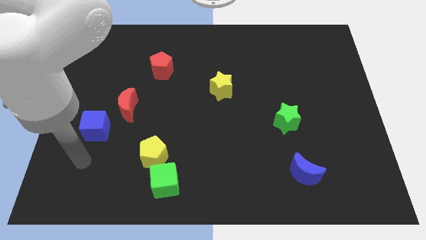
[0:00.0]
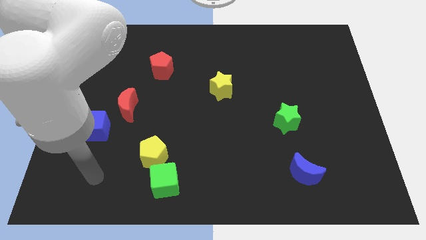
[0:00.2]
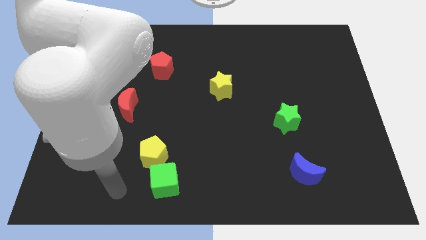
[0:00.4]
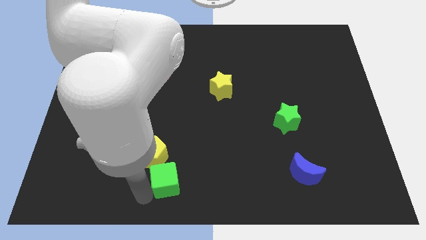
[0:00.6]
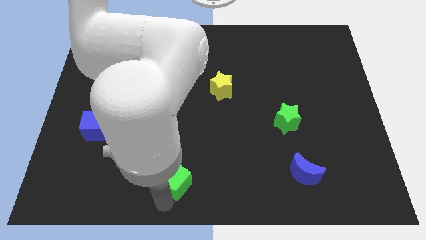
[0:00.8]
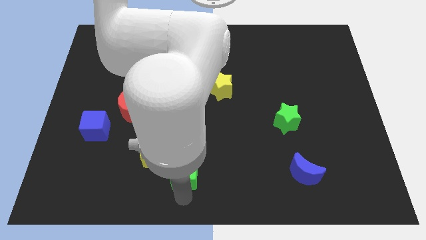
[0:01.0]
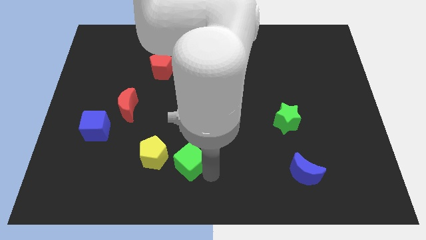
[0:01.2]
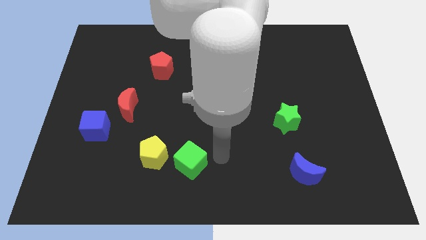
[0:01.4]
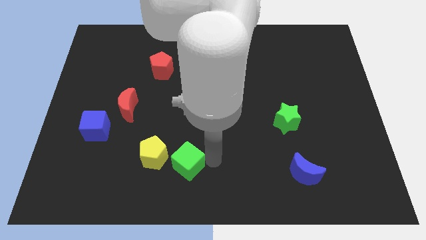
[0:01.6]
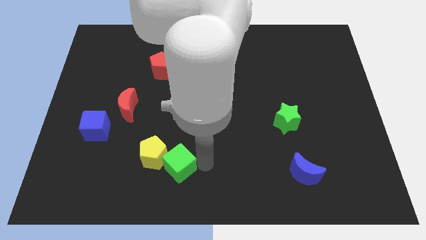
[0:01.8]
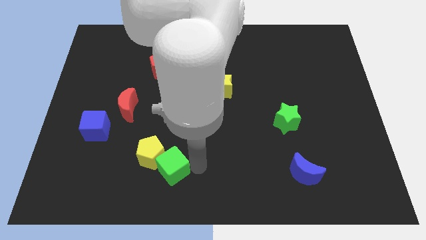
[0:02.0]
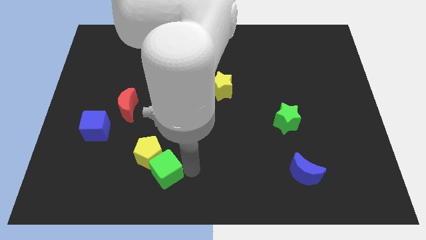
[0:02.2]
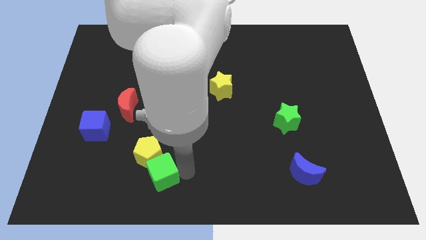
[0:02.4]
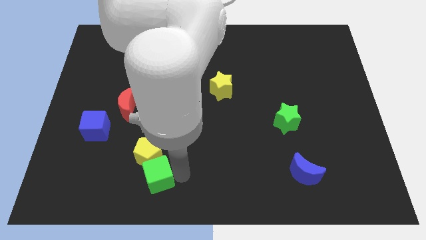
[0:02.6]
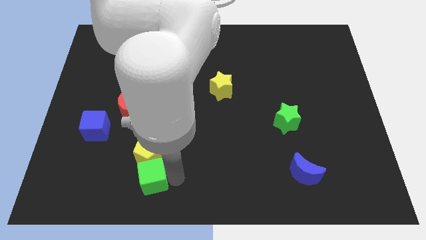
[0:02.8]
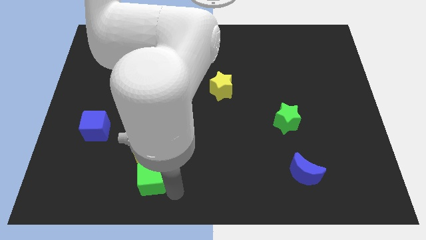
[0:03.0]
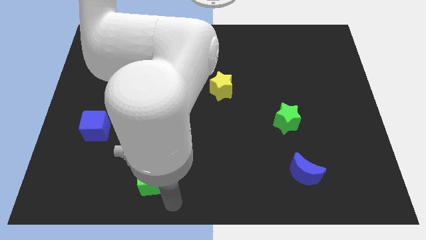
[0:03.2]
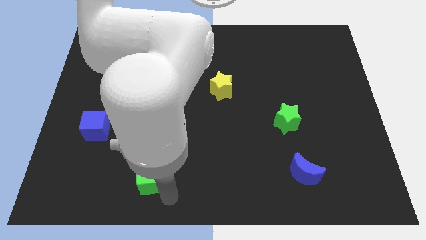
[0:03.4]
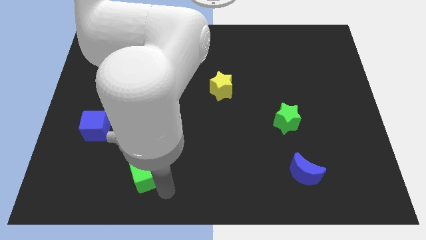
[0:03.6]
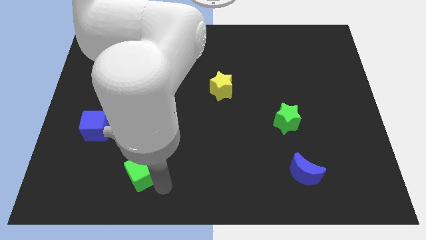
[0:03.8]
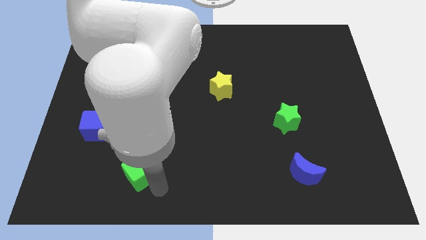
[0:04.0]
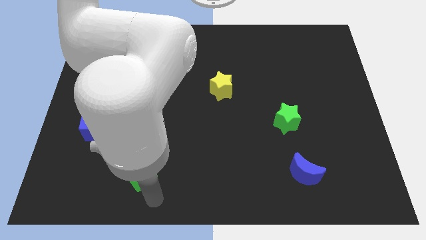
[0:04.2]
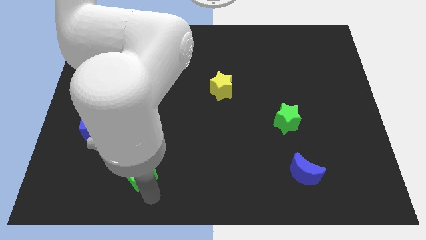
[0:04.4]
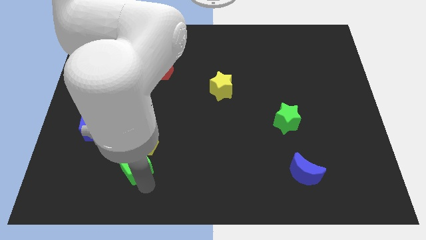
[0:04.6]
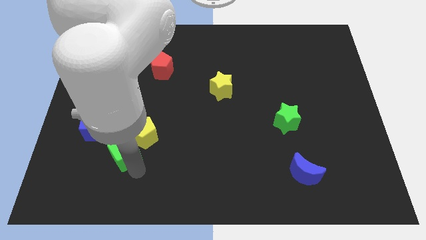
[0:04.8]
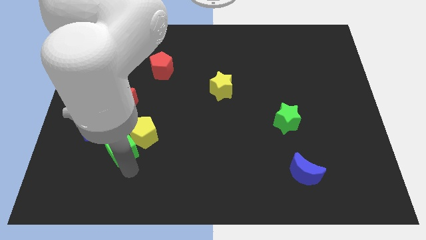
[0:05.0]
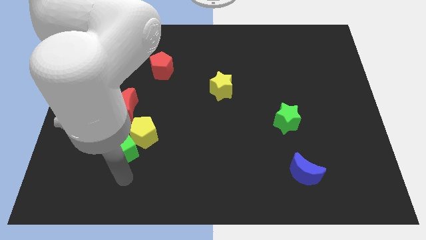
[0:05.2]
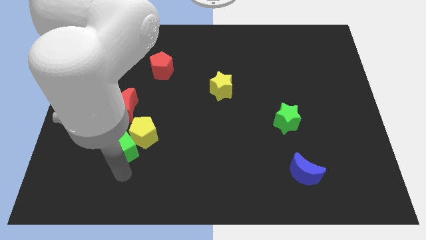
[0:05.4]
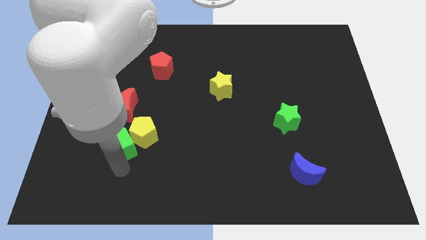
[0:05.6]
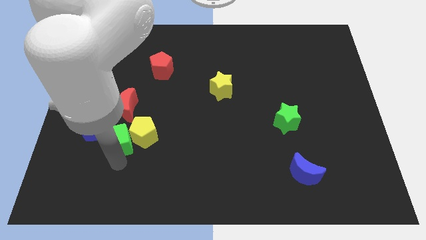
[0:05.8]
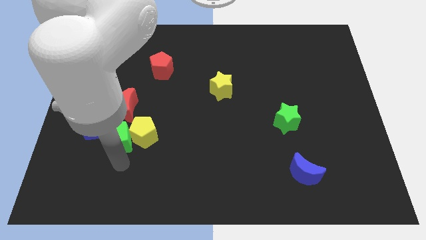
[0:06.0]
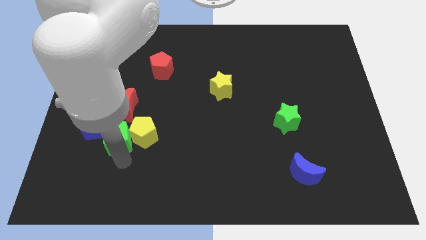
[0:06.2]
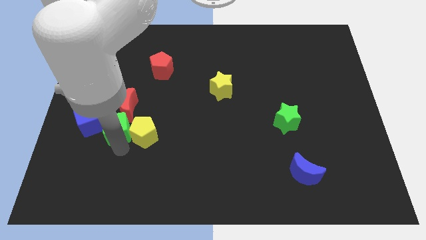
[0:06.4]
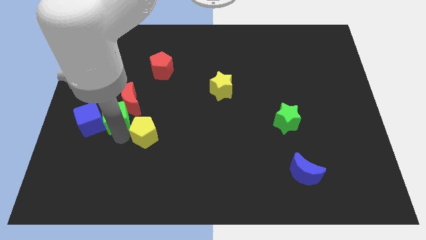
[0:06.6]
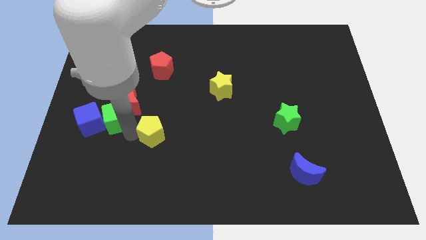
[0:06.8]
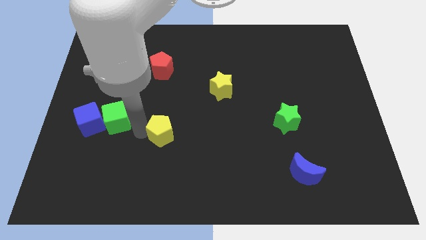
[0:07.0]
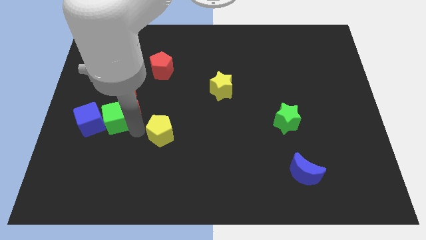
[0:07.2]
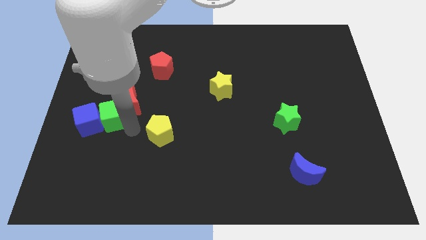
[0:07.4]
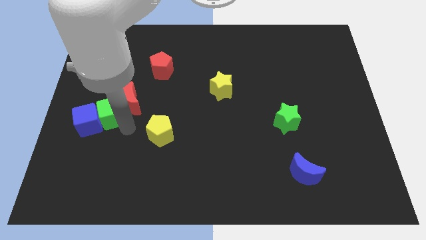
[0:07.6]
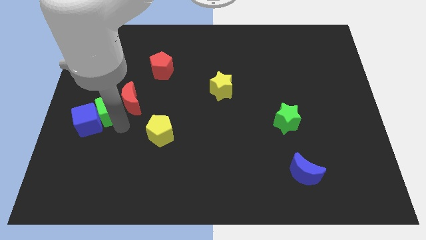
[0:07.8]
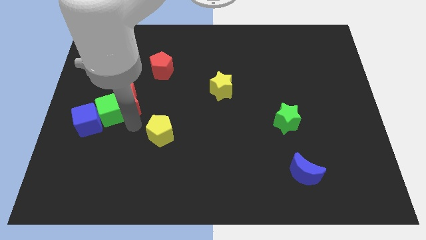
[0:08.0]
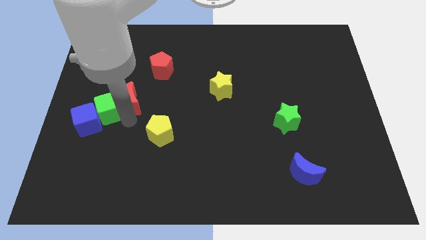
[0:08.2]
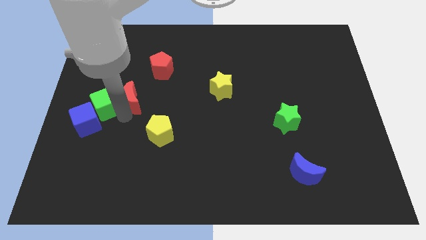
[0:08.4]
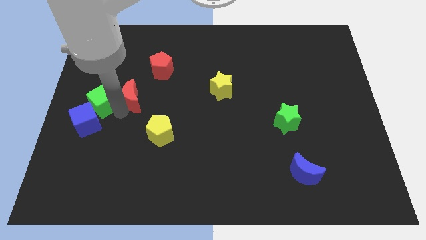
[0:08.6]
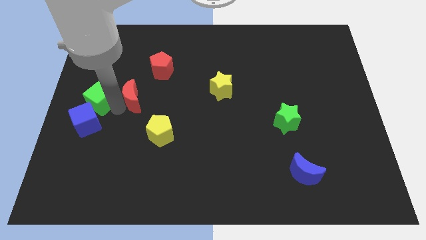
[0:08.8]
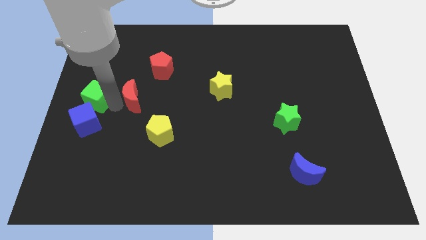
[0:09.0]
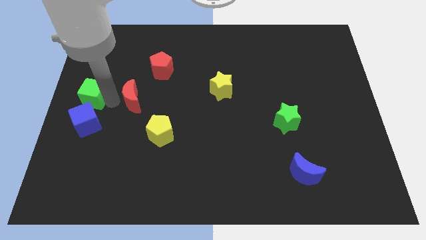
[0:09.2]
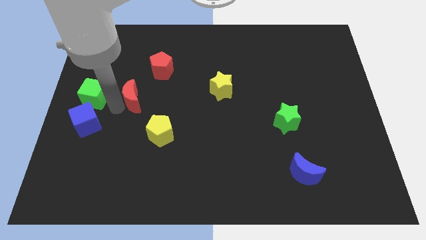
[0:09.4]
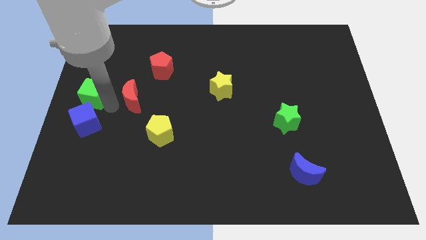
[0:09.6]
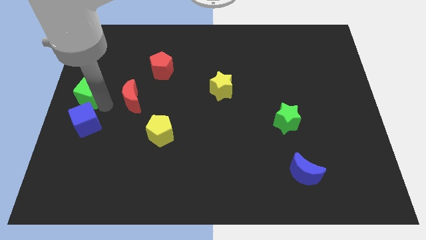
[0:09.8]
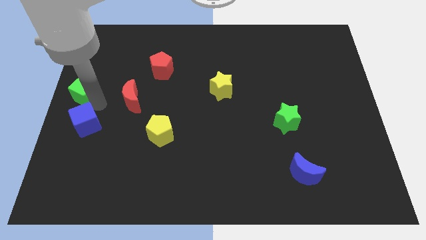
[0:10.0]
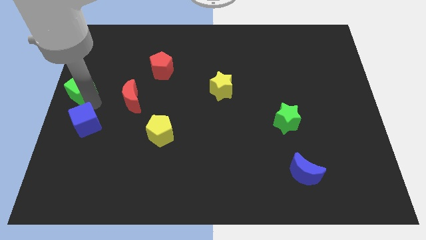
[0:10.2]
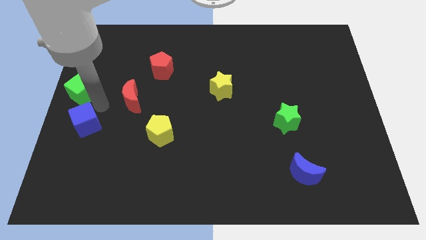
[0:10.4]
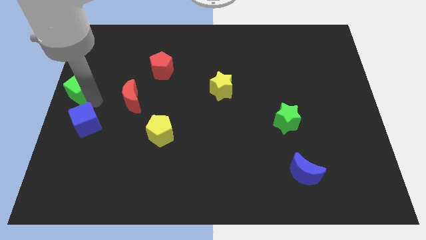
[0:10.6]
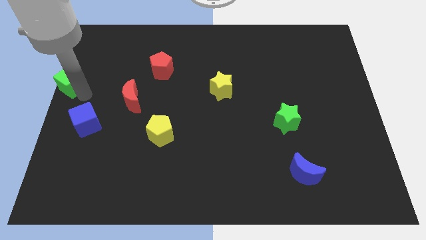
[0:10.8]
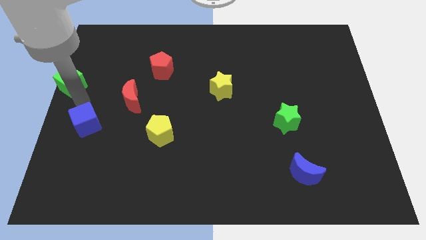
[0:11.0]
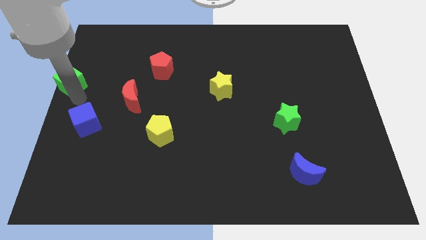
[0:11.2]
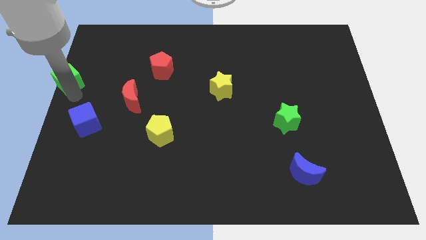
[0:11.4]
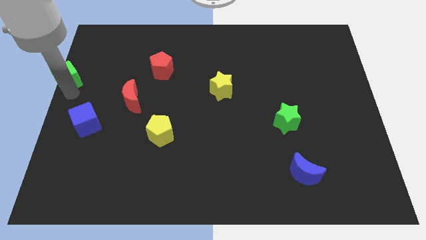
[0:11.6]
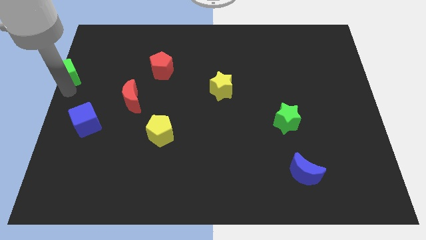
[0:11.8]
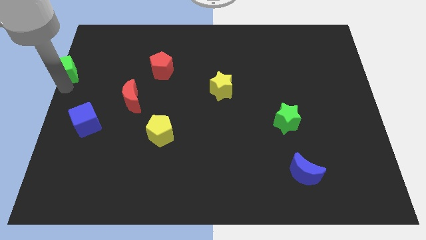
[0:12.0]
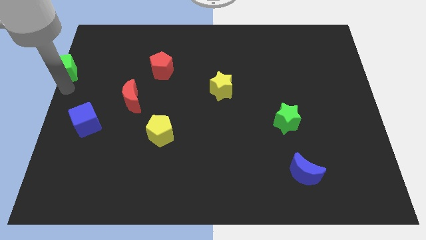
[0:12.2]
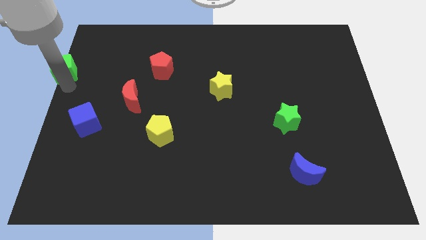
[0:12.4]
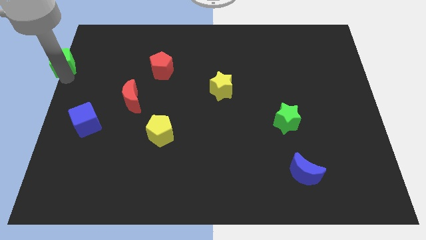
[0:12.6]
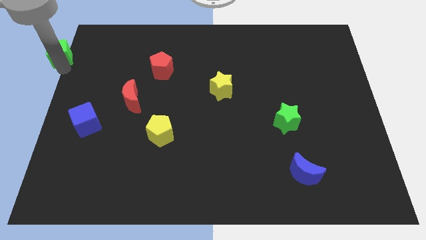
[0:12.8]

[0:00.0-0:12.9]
push the green cube to the upper left corner
